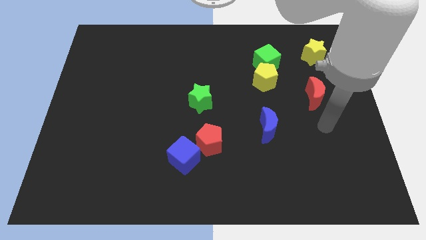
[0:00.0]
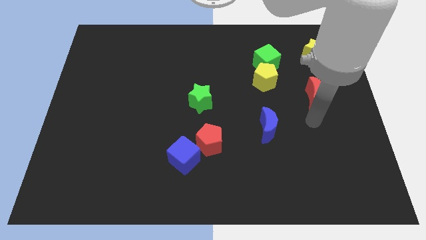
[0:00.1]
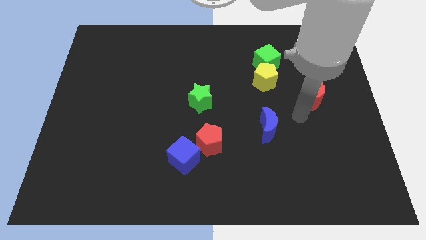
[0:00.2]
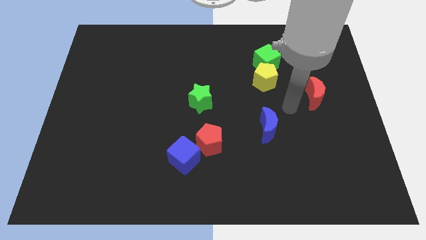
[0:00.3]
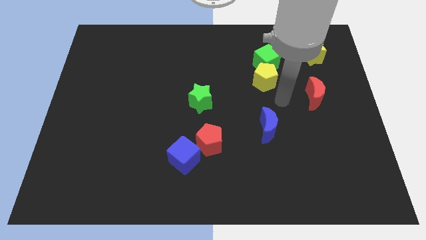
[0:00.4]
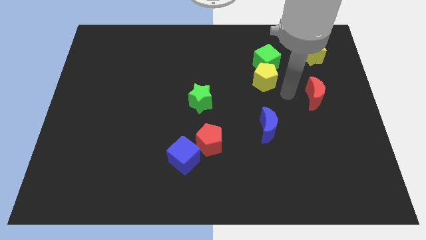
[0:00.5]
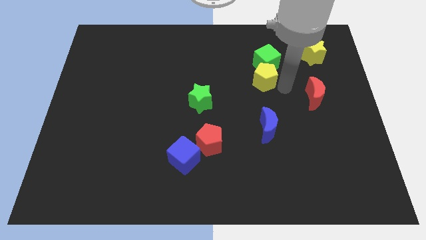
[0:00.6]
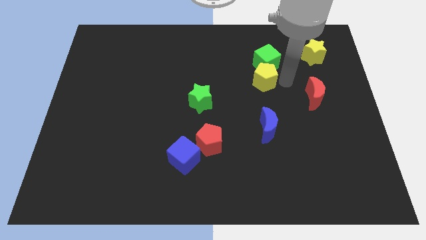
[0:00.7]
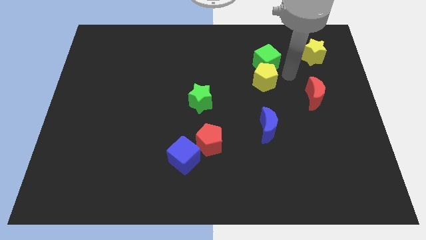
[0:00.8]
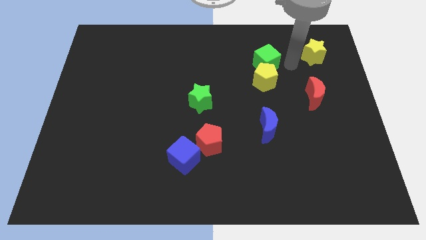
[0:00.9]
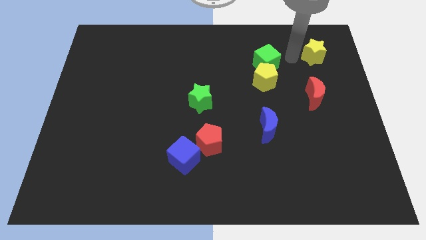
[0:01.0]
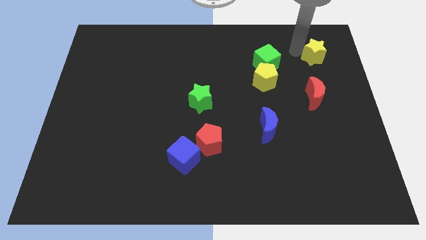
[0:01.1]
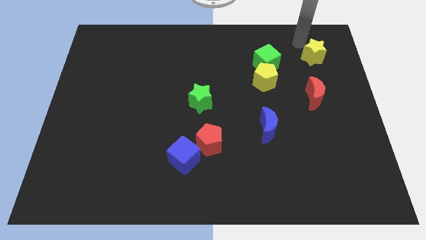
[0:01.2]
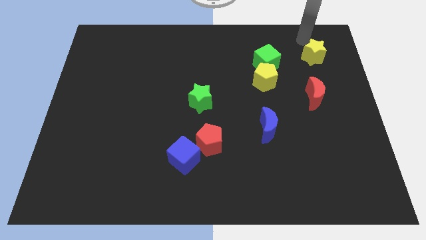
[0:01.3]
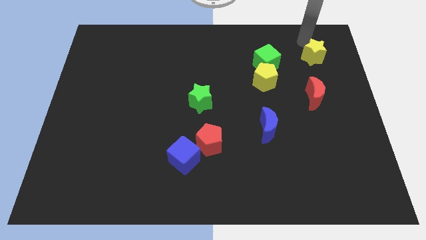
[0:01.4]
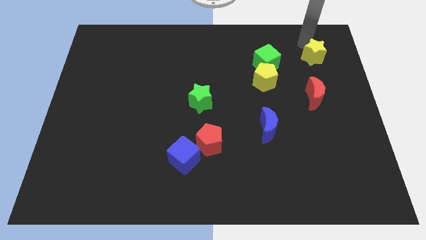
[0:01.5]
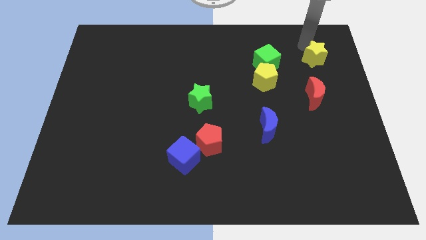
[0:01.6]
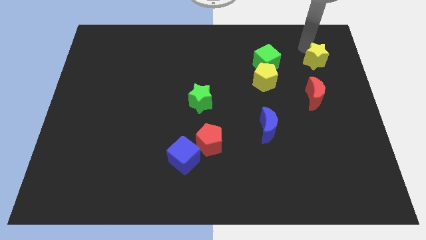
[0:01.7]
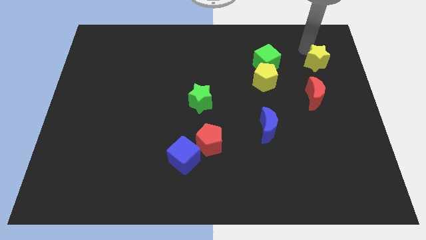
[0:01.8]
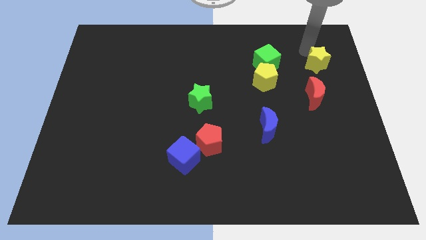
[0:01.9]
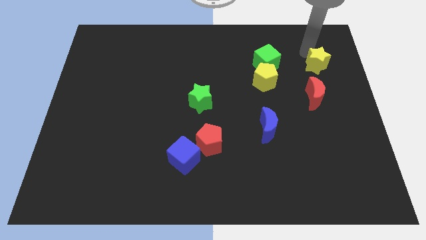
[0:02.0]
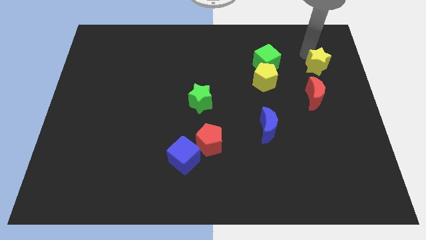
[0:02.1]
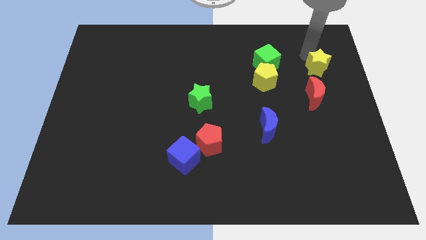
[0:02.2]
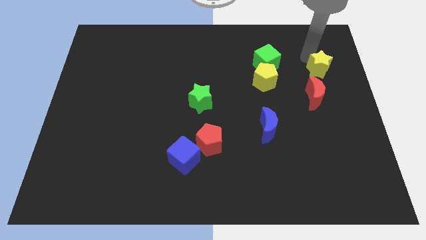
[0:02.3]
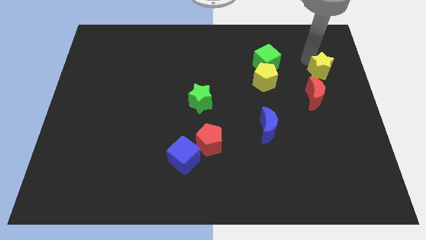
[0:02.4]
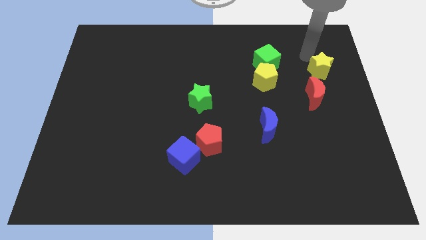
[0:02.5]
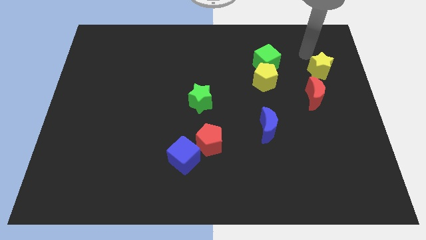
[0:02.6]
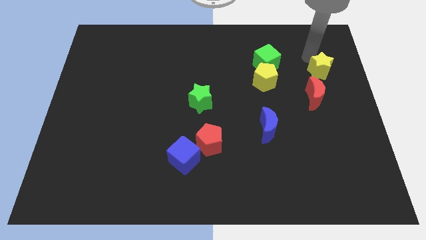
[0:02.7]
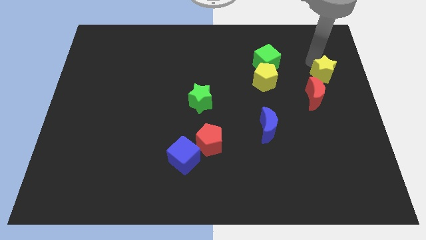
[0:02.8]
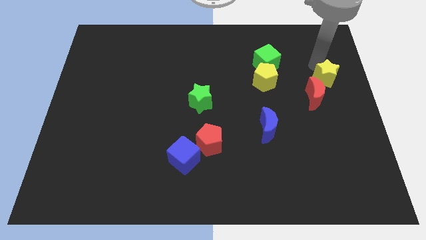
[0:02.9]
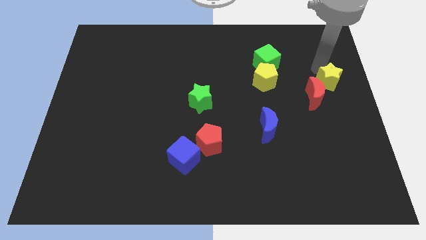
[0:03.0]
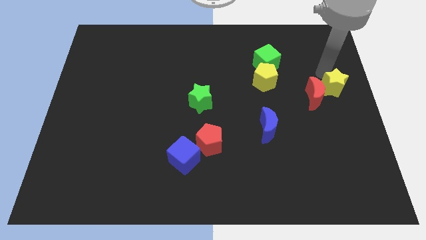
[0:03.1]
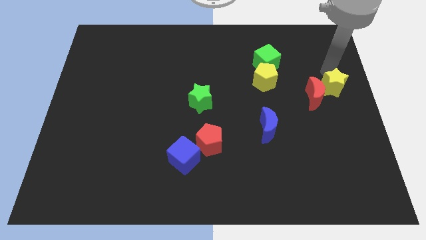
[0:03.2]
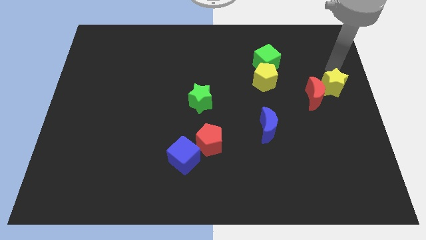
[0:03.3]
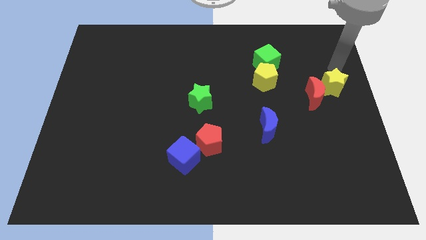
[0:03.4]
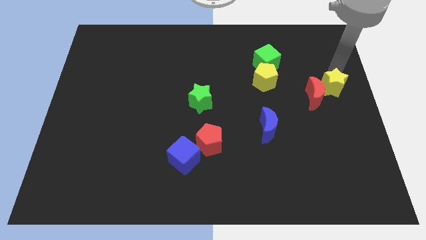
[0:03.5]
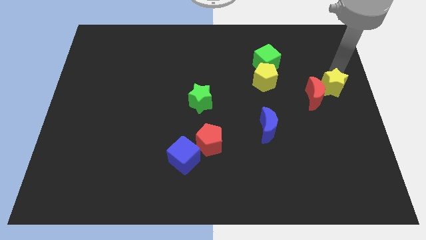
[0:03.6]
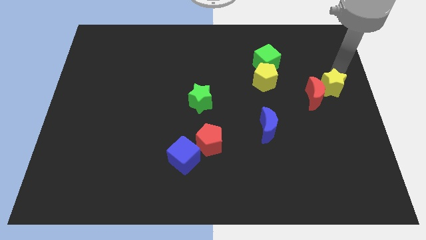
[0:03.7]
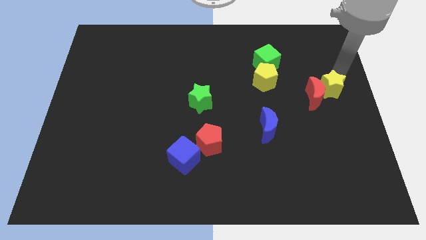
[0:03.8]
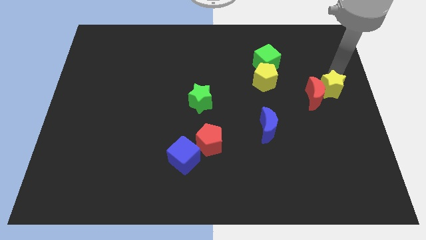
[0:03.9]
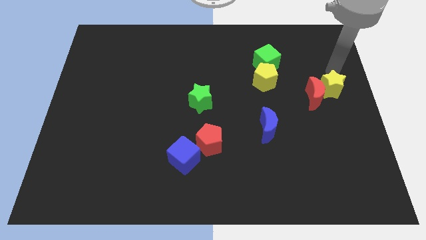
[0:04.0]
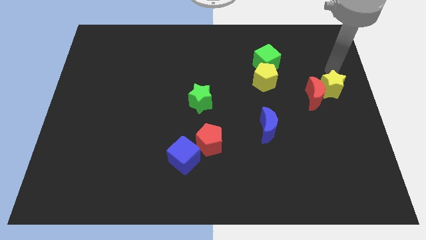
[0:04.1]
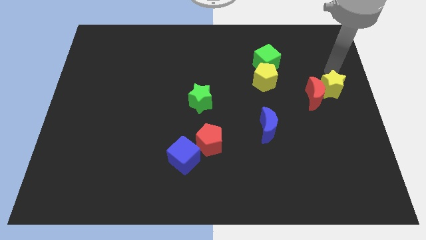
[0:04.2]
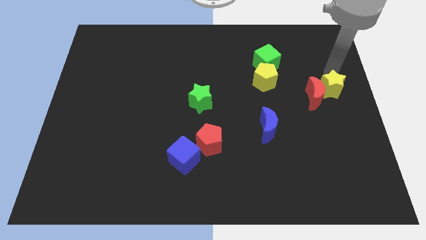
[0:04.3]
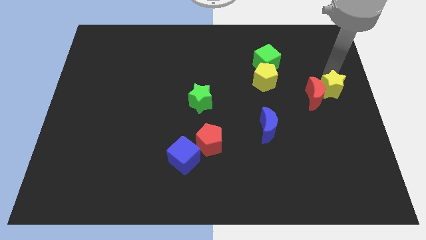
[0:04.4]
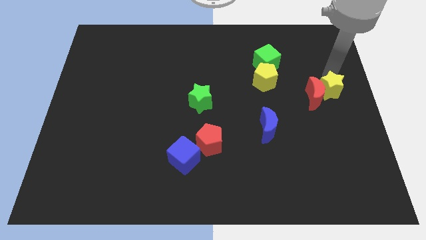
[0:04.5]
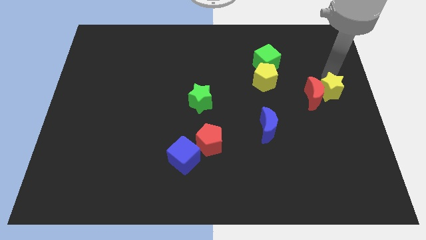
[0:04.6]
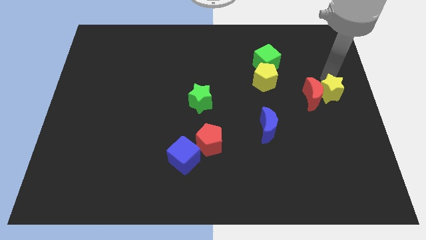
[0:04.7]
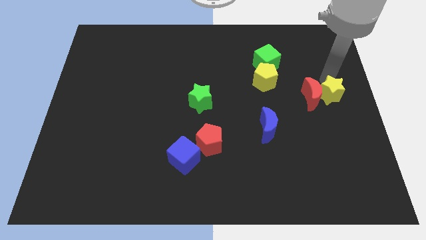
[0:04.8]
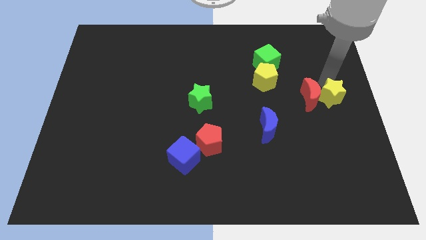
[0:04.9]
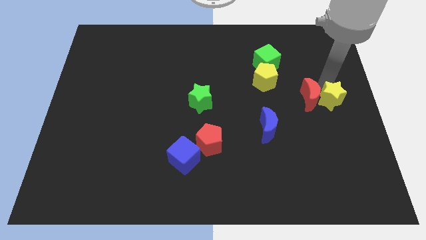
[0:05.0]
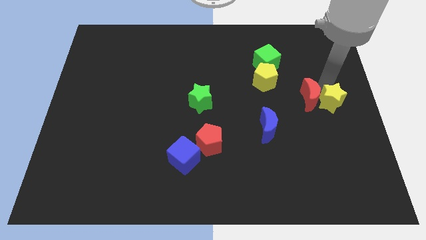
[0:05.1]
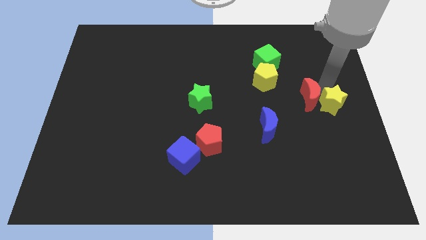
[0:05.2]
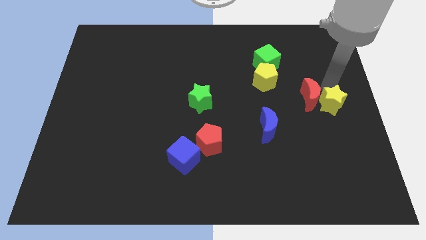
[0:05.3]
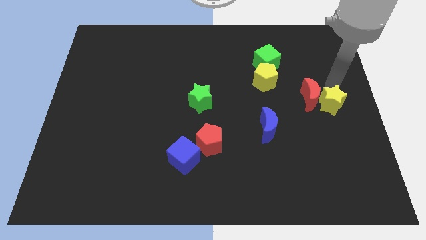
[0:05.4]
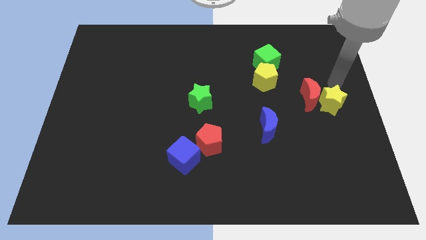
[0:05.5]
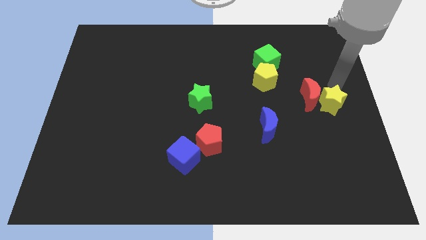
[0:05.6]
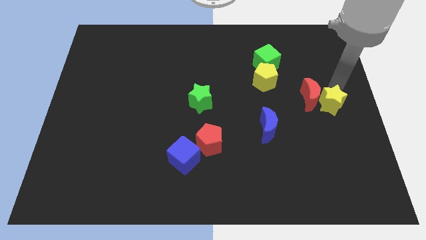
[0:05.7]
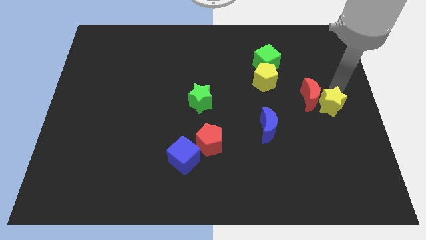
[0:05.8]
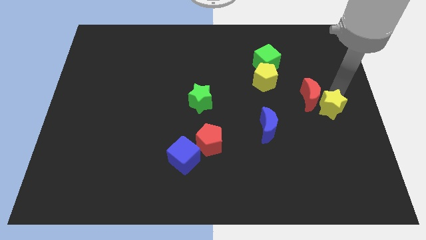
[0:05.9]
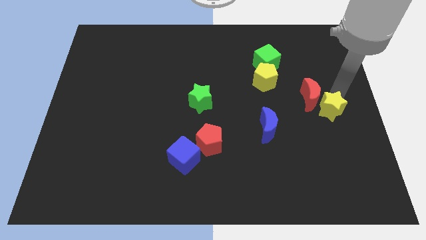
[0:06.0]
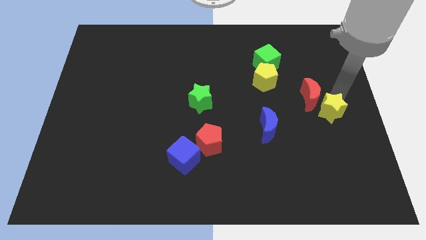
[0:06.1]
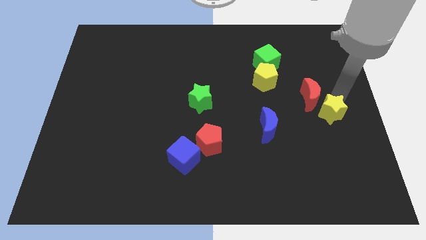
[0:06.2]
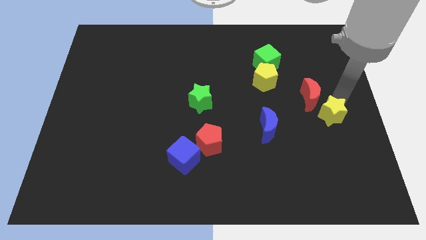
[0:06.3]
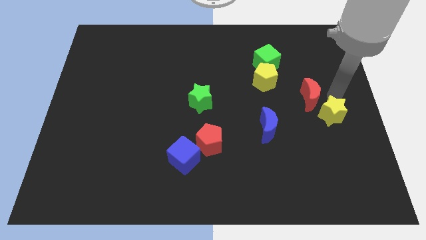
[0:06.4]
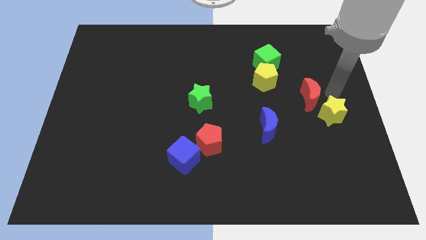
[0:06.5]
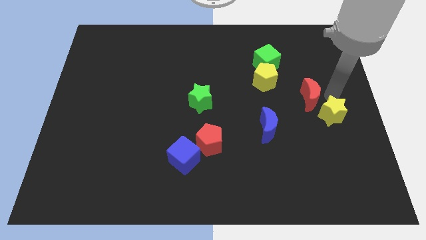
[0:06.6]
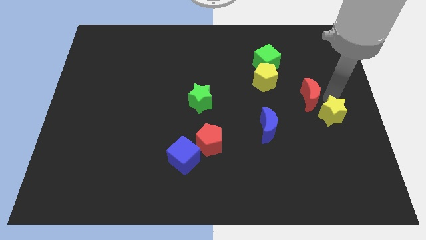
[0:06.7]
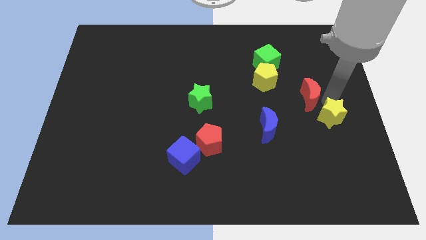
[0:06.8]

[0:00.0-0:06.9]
slide the yellow star downwards

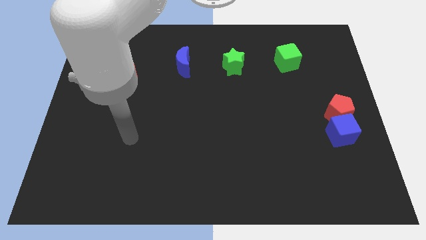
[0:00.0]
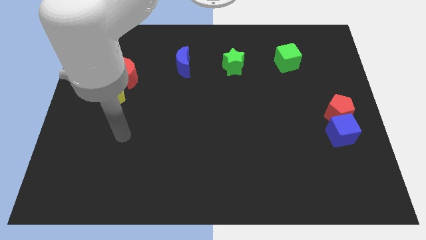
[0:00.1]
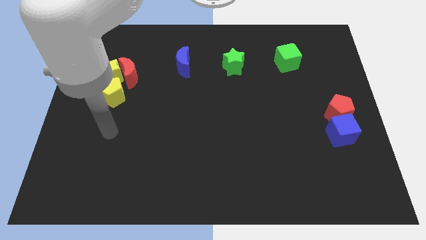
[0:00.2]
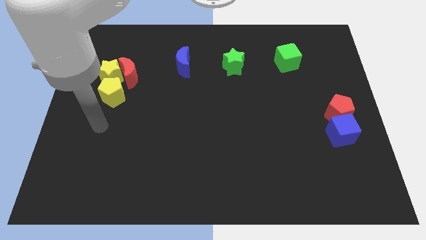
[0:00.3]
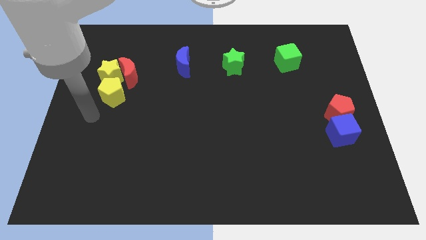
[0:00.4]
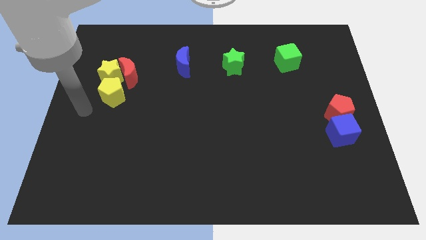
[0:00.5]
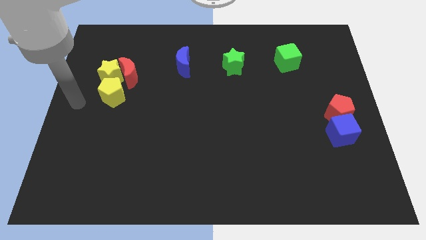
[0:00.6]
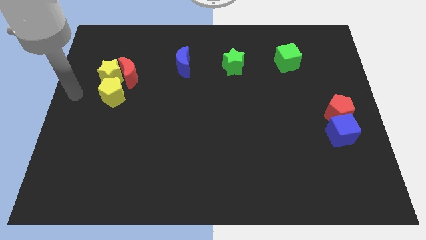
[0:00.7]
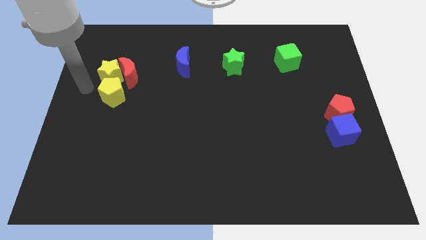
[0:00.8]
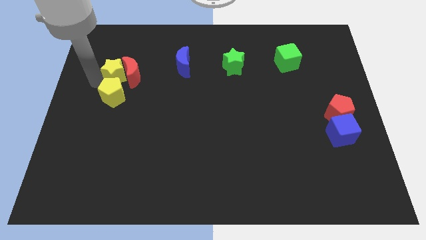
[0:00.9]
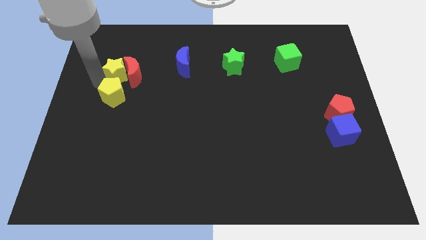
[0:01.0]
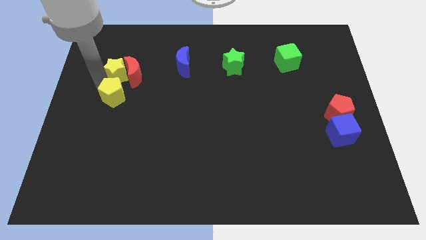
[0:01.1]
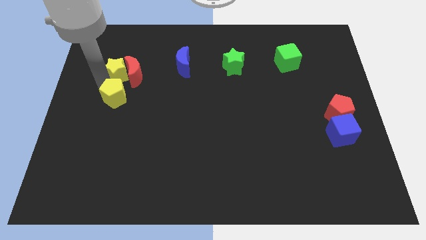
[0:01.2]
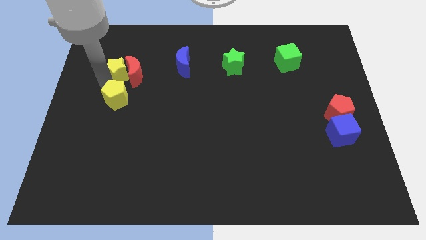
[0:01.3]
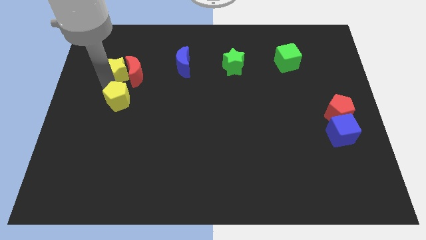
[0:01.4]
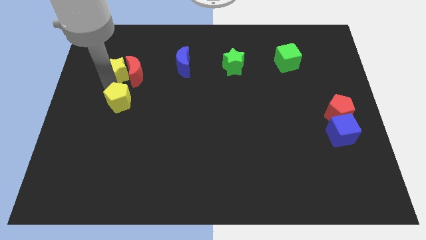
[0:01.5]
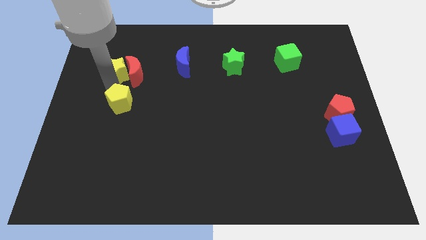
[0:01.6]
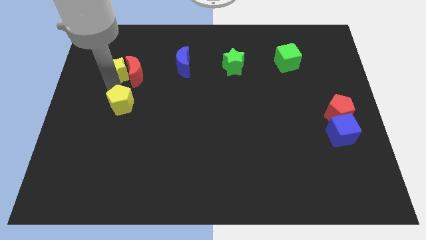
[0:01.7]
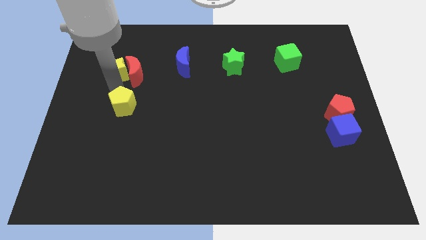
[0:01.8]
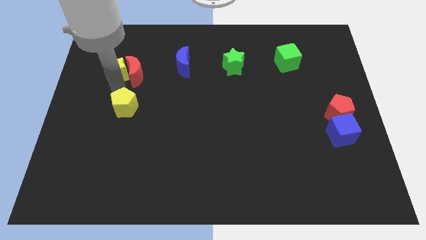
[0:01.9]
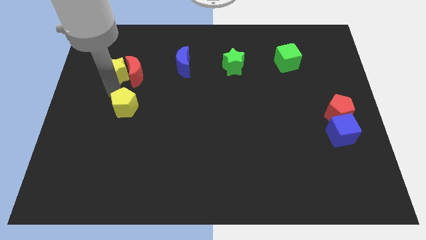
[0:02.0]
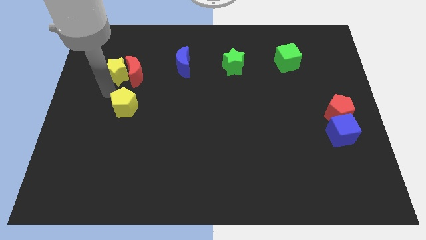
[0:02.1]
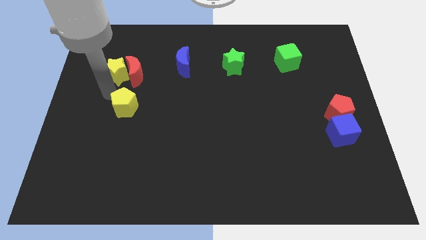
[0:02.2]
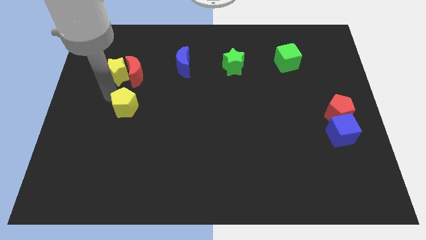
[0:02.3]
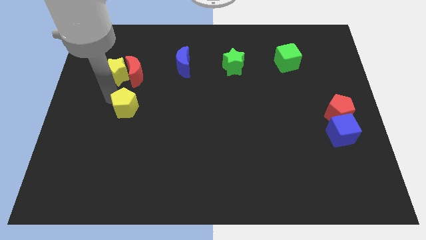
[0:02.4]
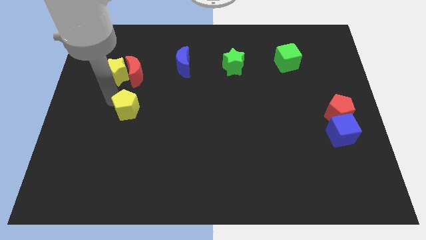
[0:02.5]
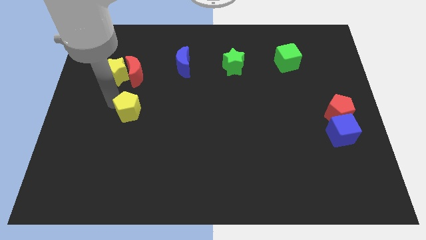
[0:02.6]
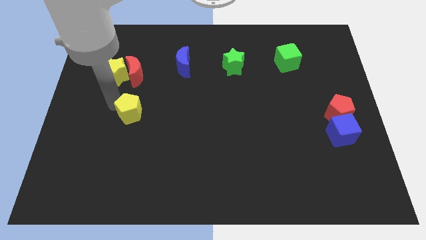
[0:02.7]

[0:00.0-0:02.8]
slightly slide the yellow pentagon down and right diagonally
